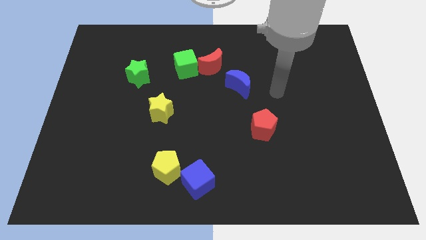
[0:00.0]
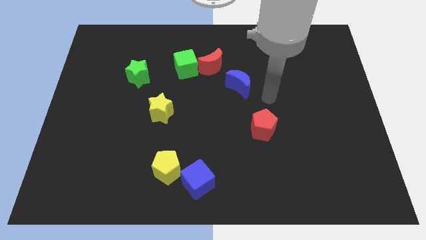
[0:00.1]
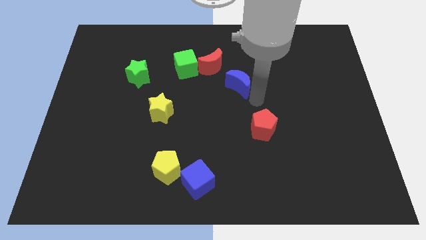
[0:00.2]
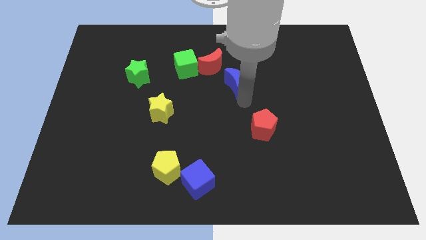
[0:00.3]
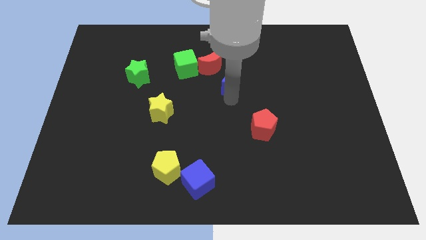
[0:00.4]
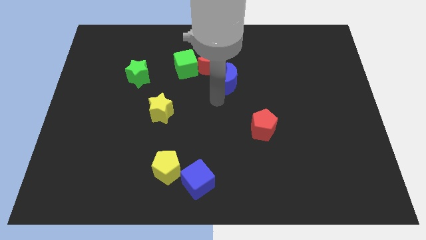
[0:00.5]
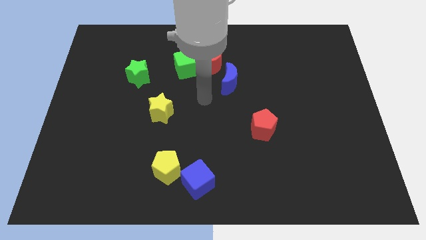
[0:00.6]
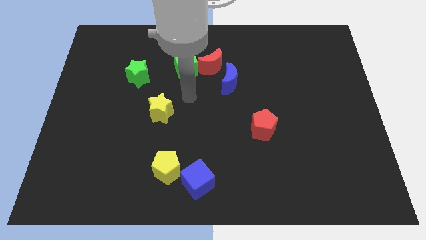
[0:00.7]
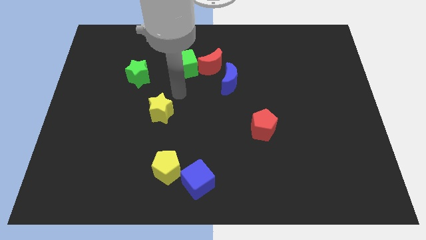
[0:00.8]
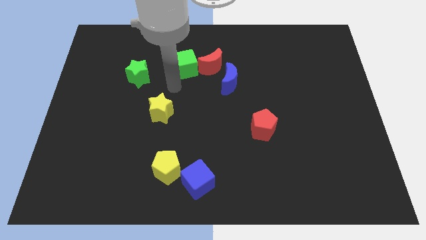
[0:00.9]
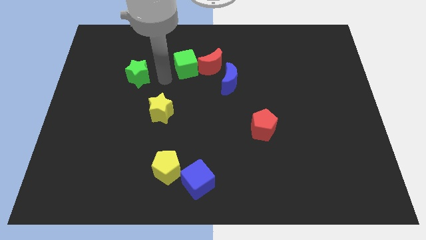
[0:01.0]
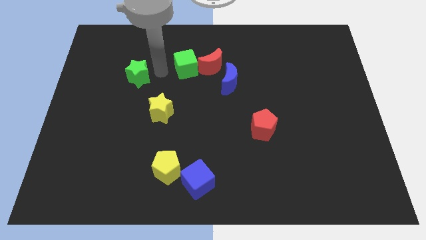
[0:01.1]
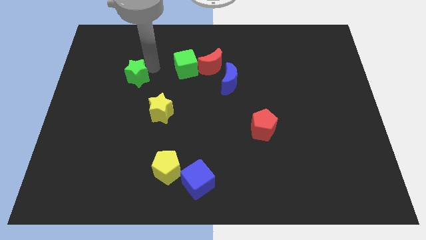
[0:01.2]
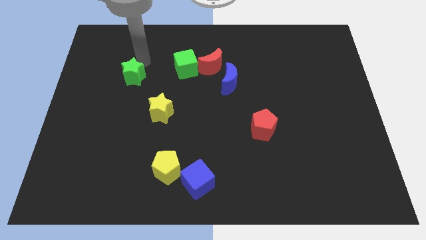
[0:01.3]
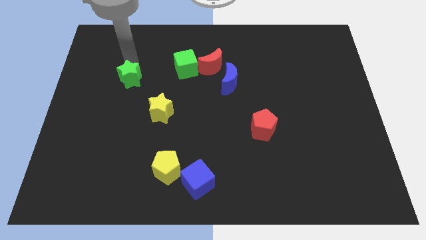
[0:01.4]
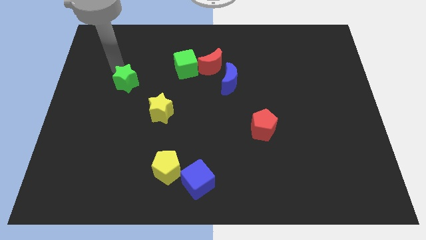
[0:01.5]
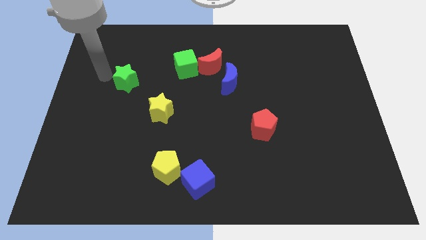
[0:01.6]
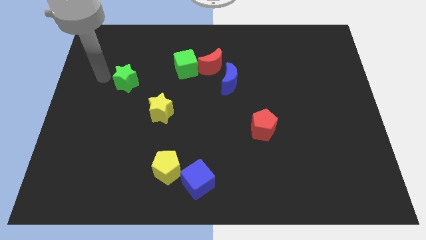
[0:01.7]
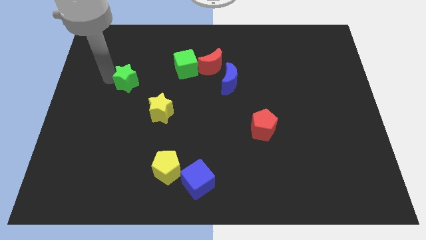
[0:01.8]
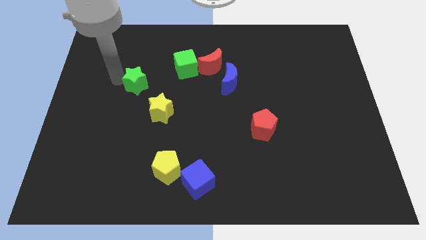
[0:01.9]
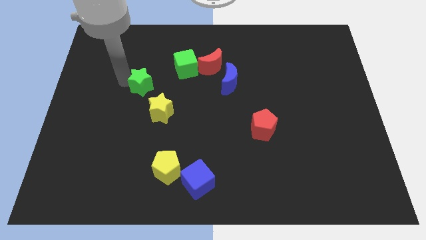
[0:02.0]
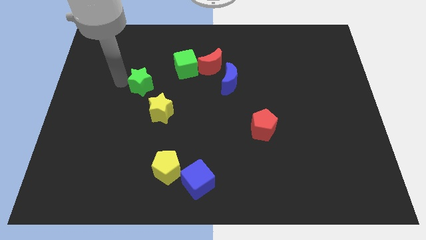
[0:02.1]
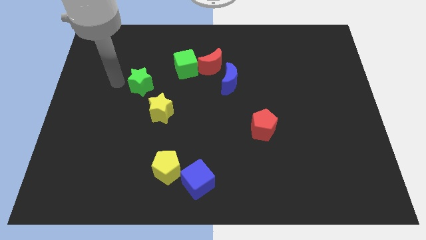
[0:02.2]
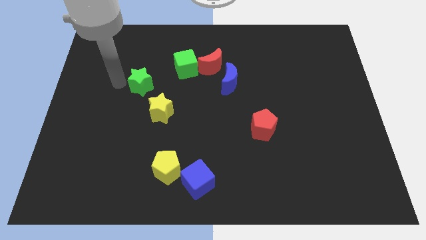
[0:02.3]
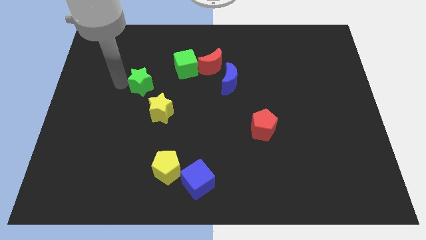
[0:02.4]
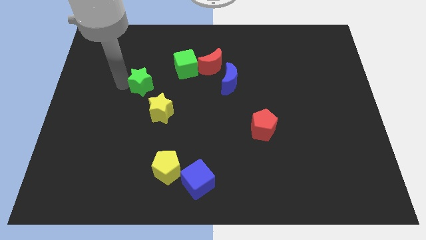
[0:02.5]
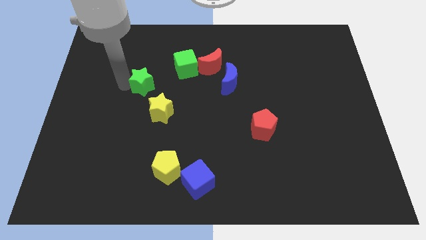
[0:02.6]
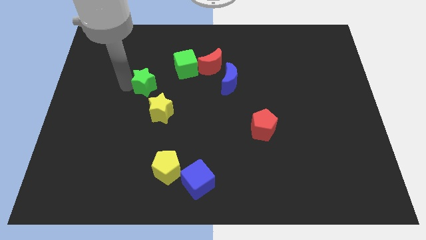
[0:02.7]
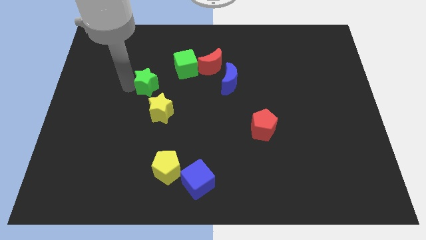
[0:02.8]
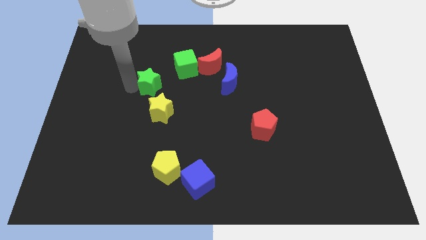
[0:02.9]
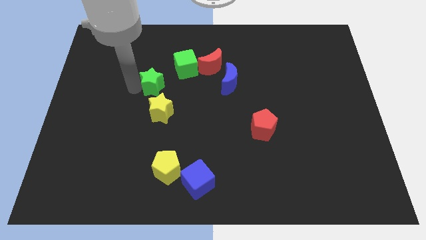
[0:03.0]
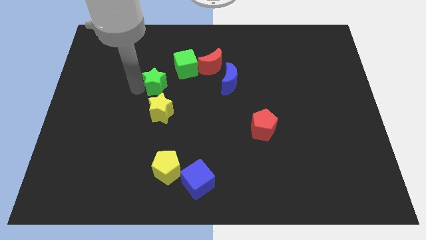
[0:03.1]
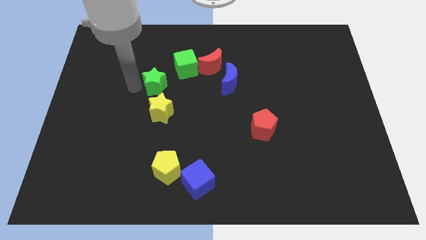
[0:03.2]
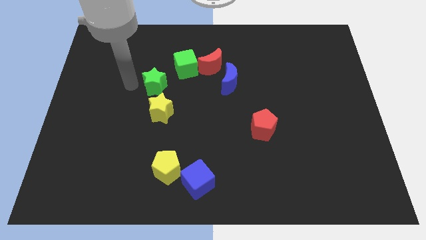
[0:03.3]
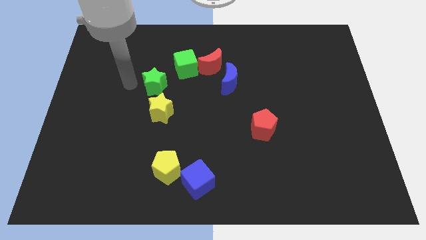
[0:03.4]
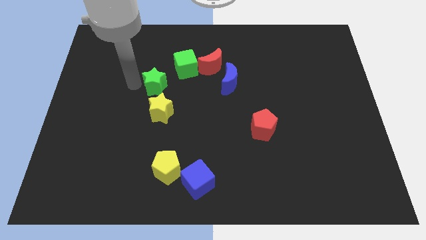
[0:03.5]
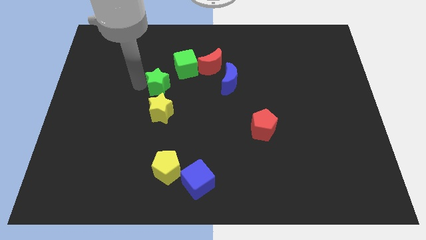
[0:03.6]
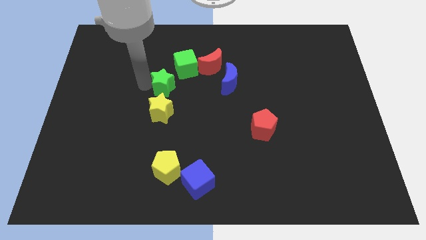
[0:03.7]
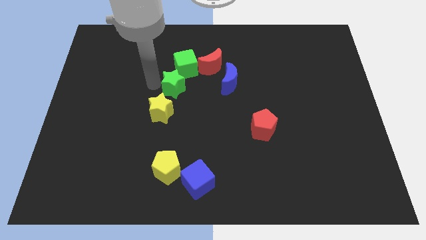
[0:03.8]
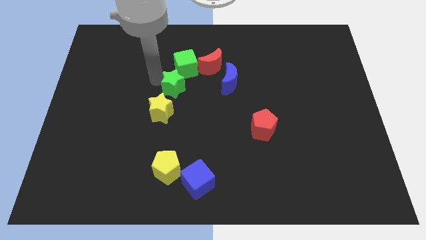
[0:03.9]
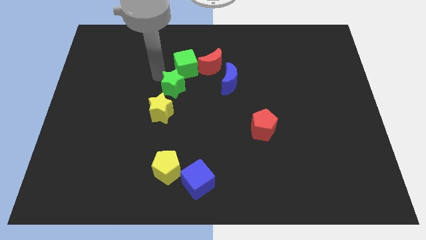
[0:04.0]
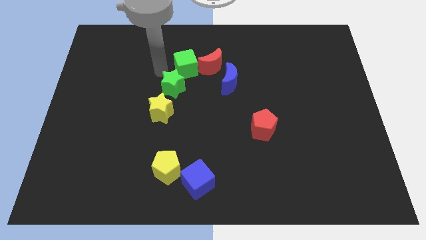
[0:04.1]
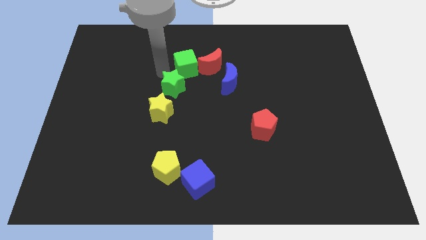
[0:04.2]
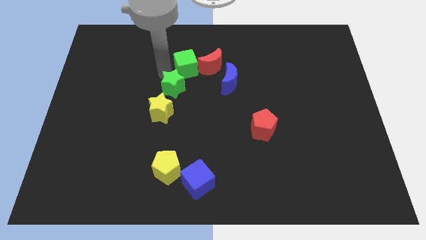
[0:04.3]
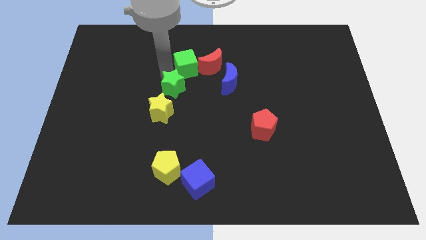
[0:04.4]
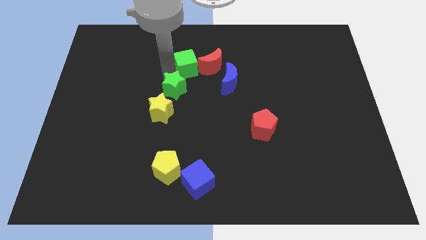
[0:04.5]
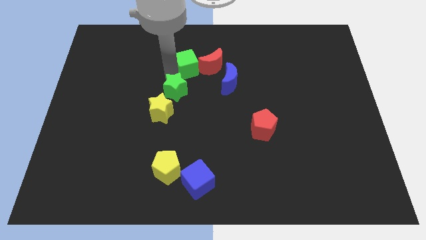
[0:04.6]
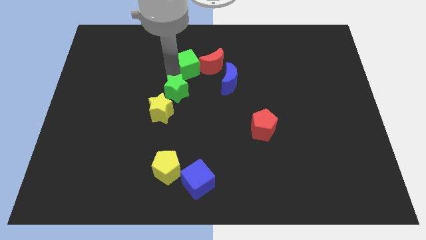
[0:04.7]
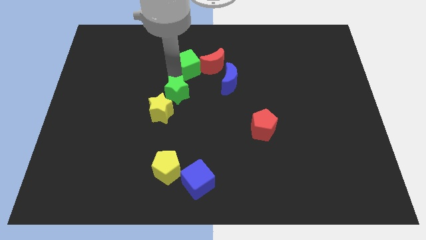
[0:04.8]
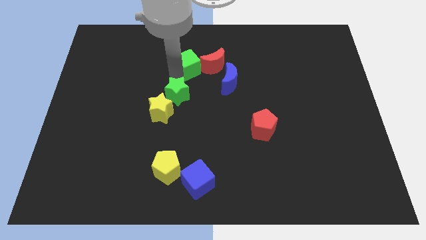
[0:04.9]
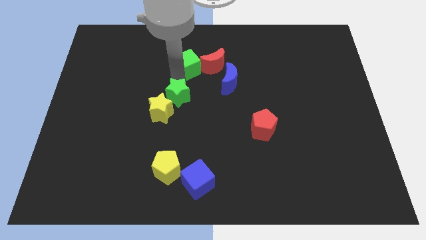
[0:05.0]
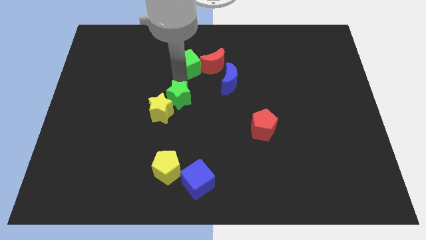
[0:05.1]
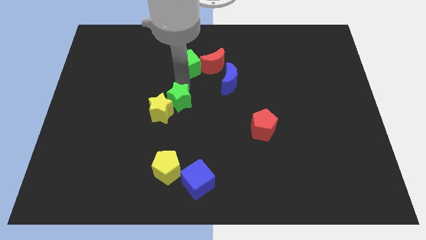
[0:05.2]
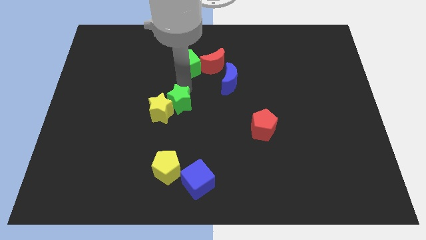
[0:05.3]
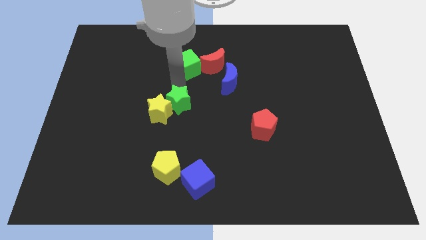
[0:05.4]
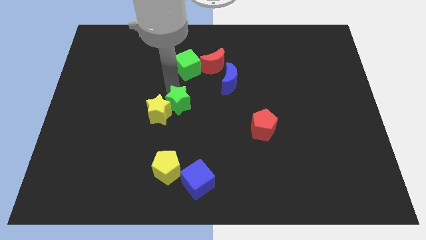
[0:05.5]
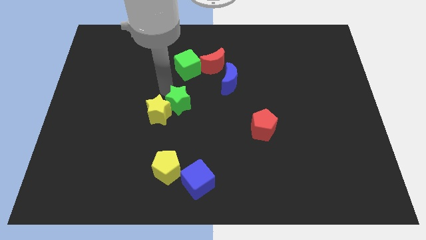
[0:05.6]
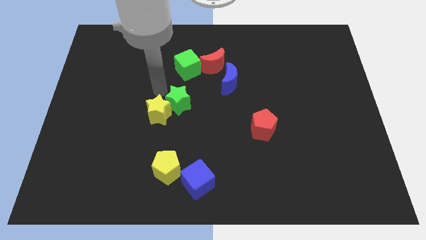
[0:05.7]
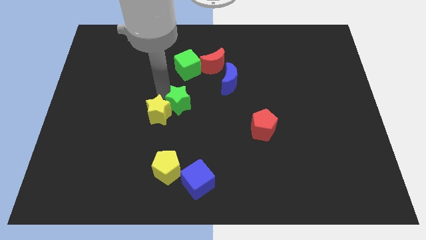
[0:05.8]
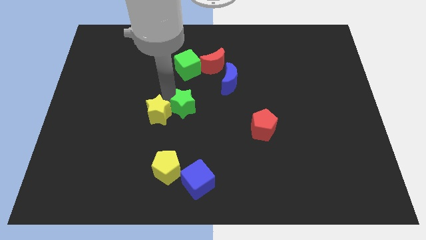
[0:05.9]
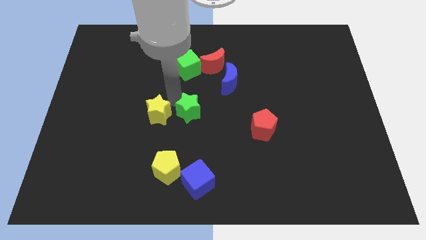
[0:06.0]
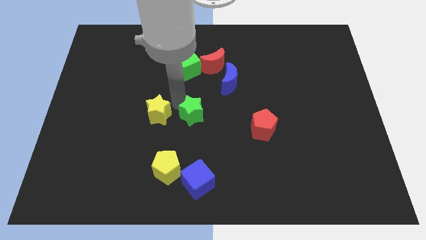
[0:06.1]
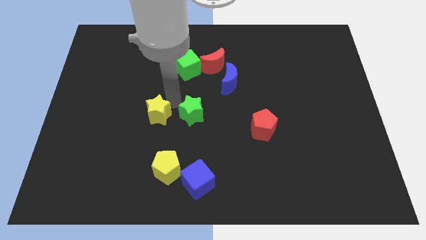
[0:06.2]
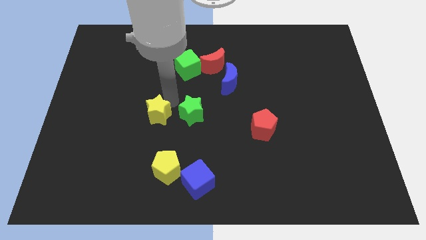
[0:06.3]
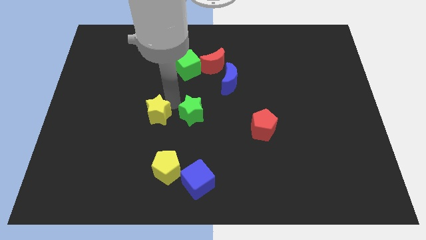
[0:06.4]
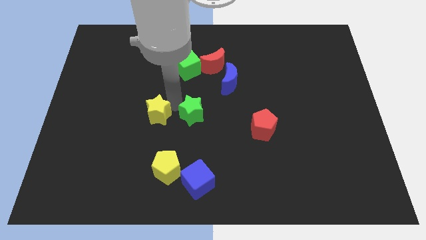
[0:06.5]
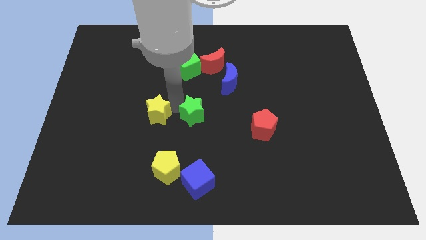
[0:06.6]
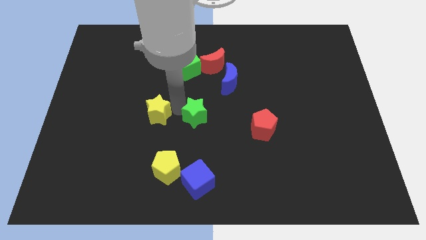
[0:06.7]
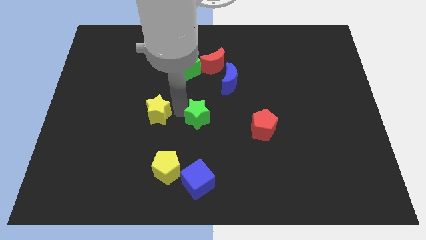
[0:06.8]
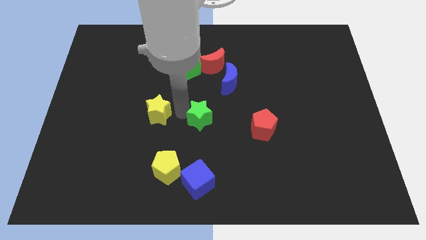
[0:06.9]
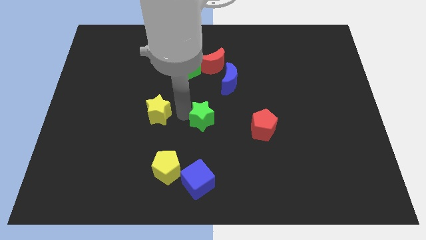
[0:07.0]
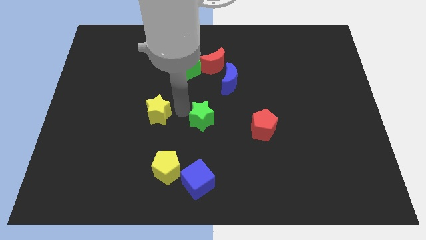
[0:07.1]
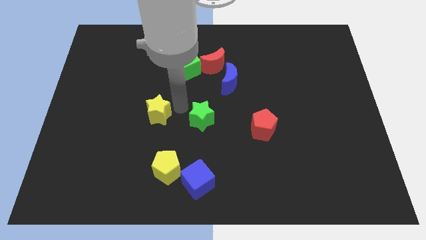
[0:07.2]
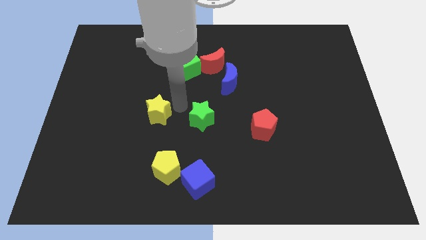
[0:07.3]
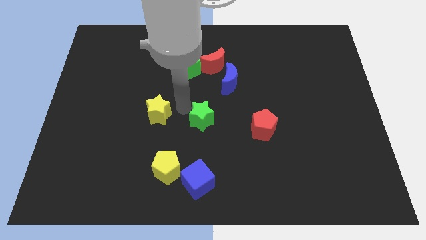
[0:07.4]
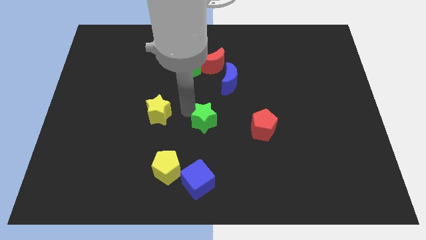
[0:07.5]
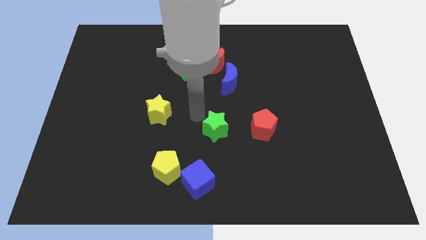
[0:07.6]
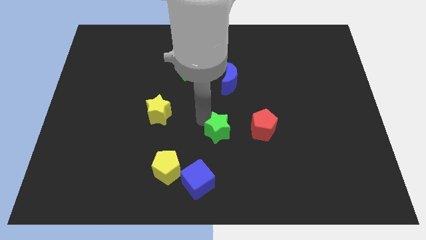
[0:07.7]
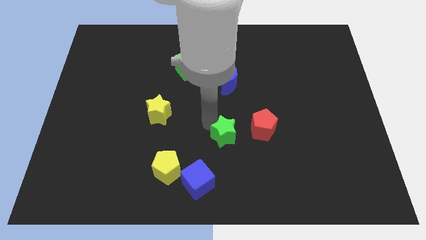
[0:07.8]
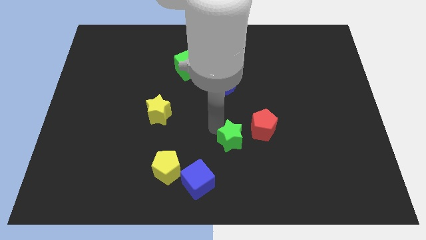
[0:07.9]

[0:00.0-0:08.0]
push the green star to the bottom left of the red pentagon
